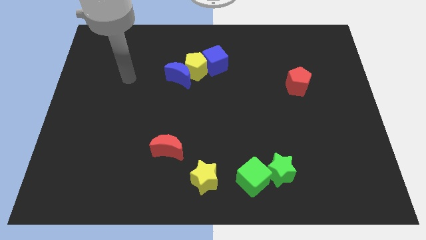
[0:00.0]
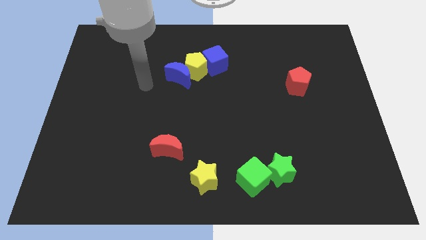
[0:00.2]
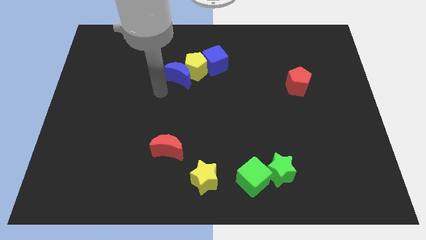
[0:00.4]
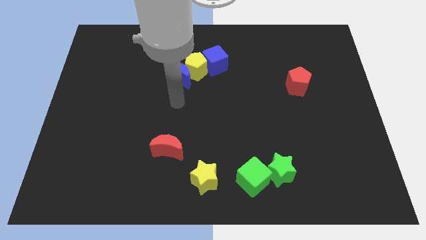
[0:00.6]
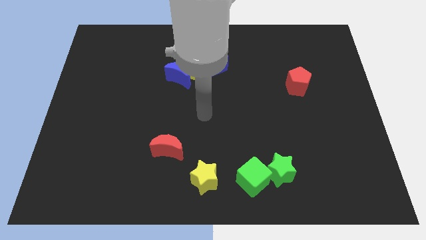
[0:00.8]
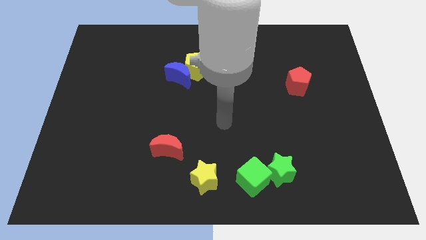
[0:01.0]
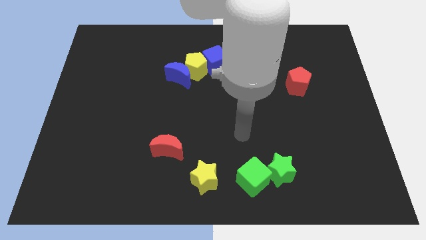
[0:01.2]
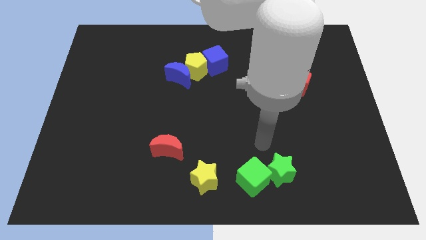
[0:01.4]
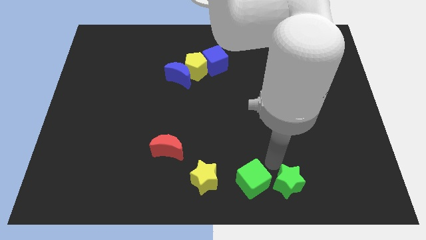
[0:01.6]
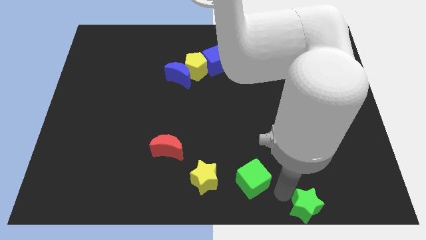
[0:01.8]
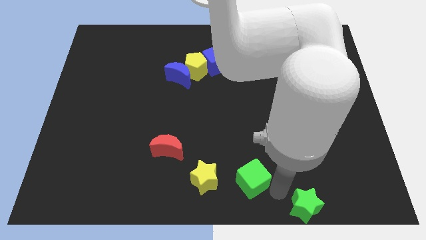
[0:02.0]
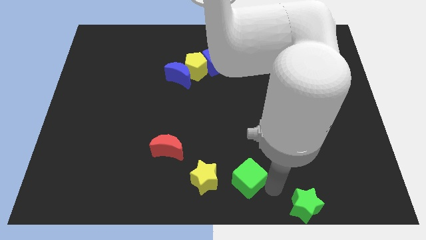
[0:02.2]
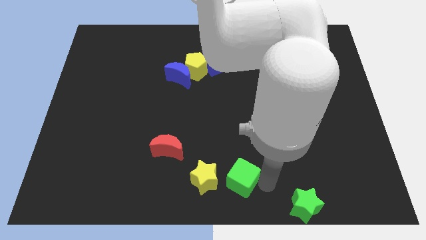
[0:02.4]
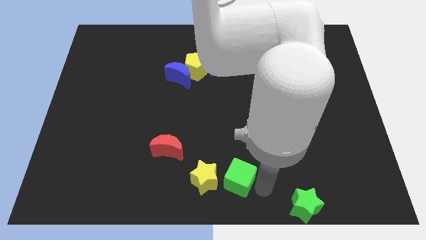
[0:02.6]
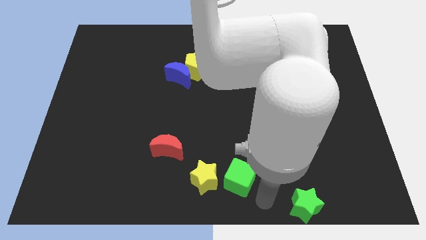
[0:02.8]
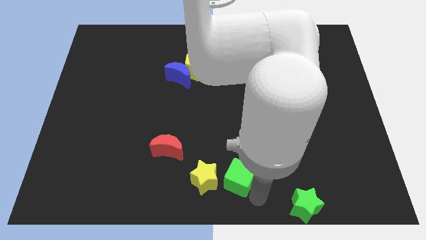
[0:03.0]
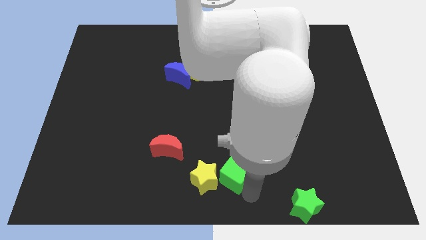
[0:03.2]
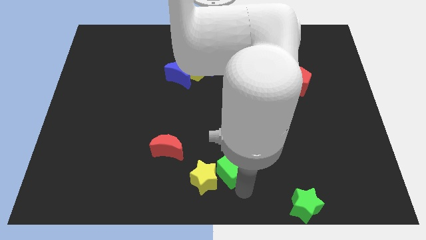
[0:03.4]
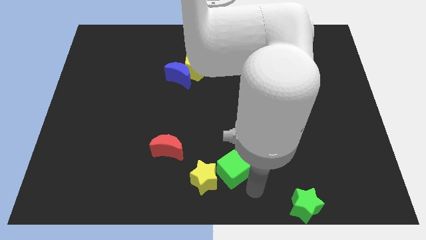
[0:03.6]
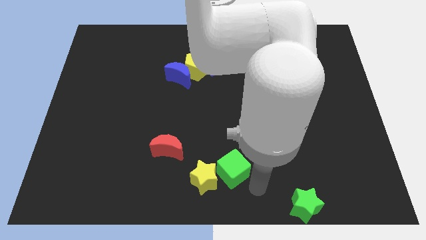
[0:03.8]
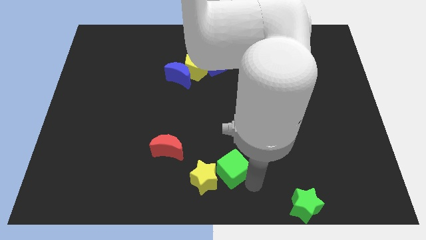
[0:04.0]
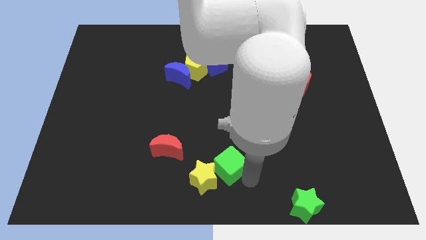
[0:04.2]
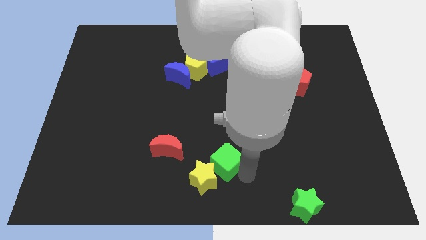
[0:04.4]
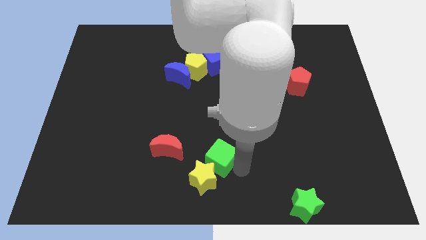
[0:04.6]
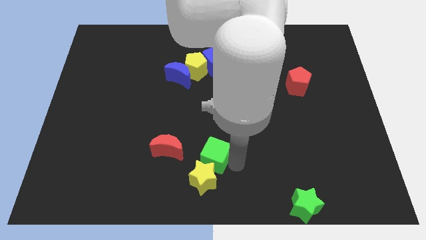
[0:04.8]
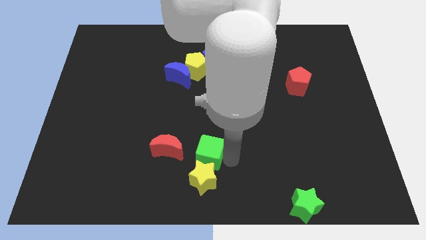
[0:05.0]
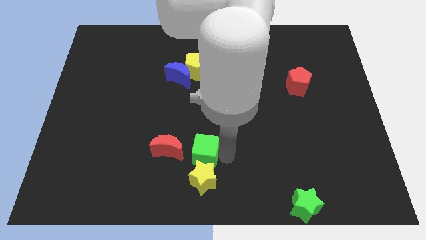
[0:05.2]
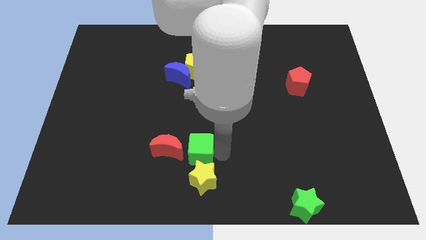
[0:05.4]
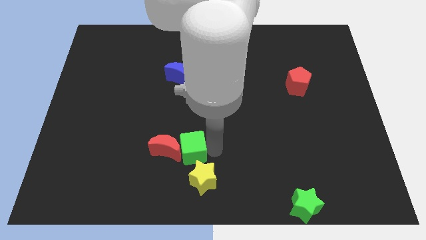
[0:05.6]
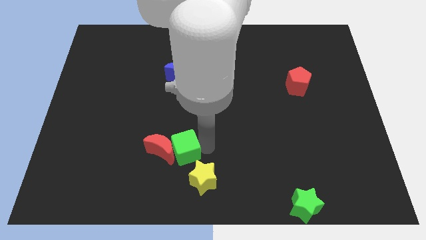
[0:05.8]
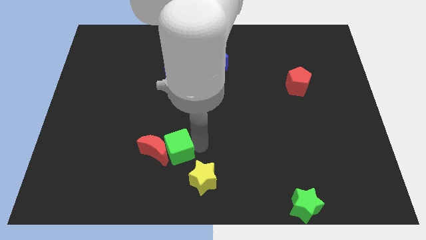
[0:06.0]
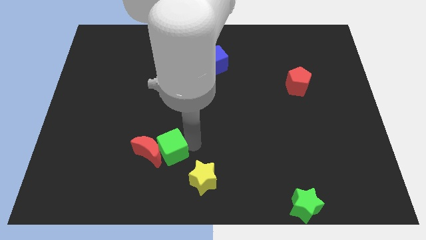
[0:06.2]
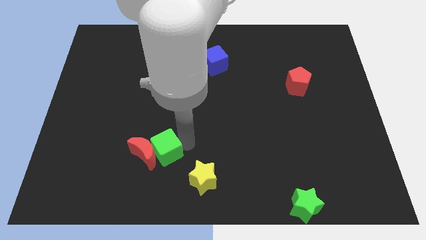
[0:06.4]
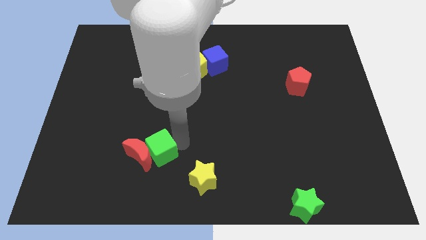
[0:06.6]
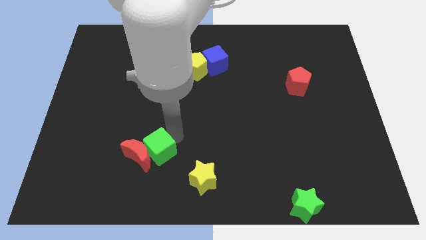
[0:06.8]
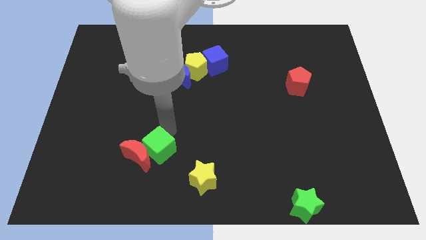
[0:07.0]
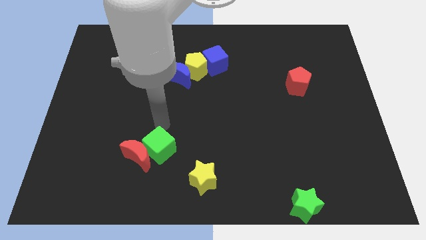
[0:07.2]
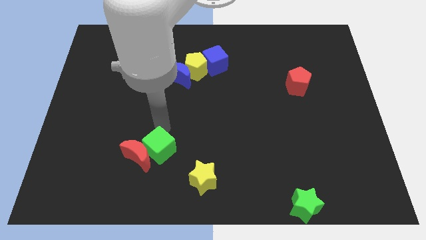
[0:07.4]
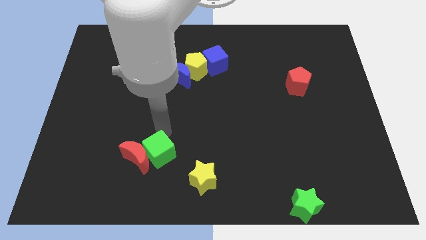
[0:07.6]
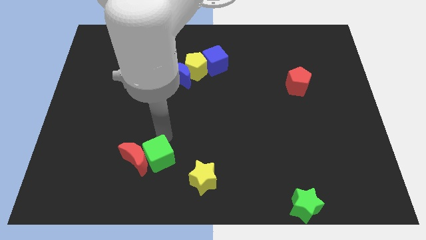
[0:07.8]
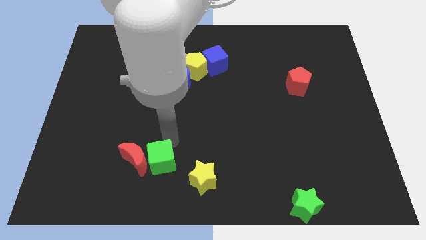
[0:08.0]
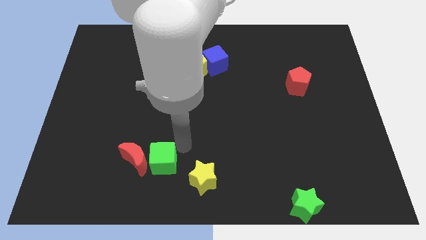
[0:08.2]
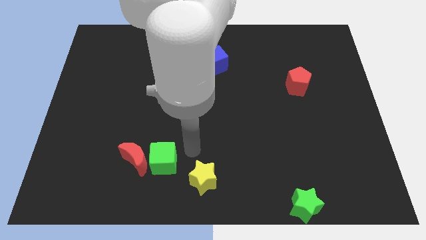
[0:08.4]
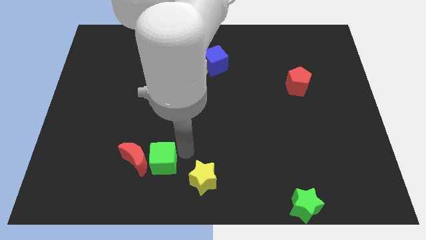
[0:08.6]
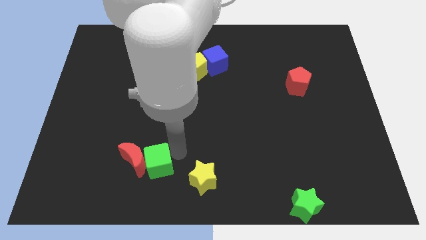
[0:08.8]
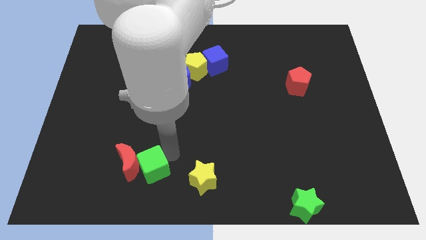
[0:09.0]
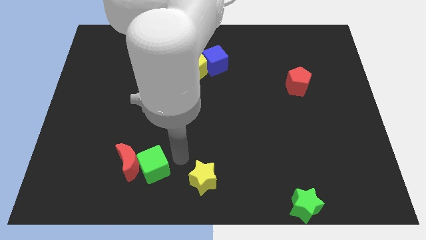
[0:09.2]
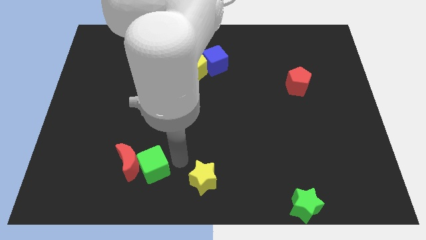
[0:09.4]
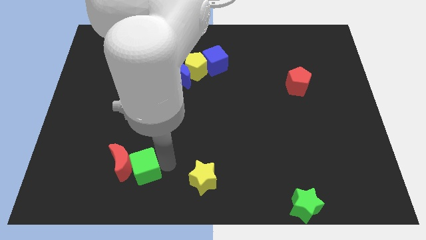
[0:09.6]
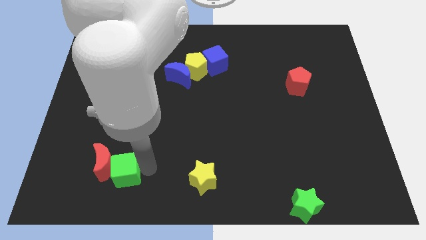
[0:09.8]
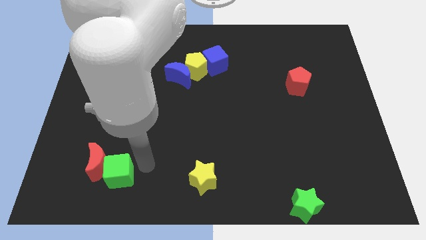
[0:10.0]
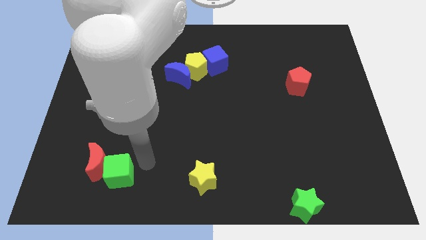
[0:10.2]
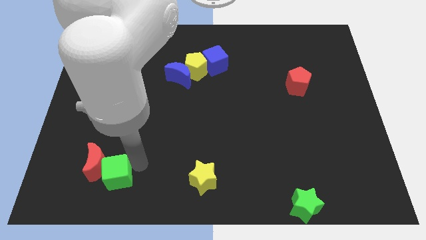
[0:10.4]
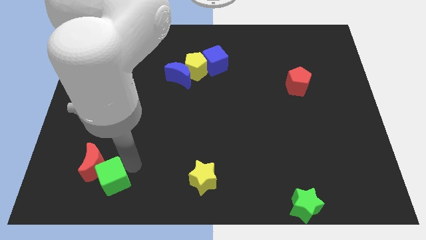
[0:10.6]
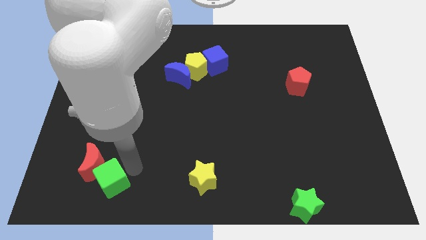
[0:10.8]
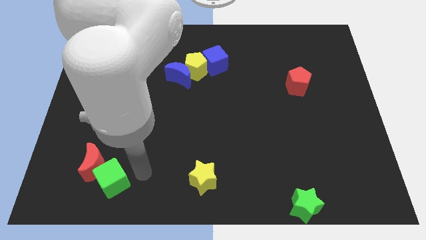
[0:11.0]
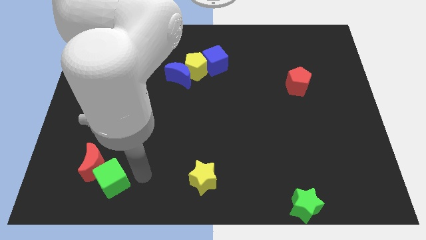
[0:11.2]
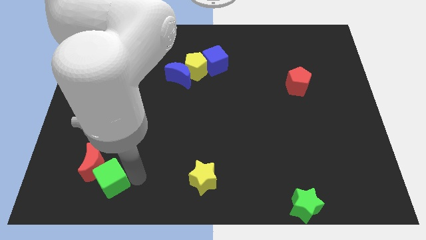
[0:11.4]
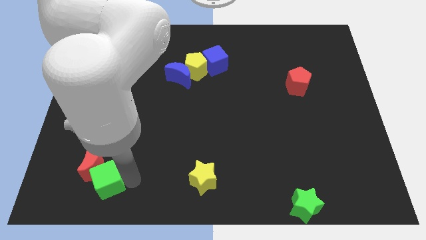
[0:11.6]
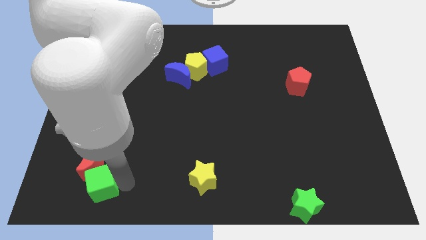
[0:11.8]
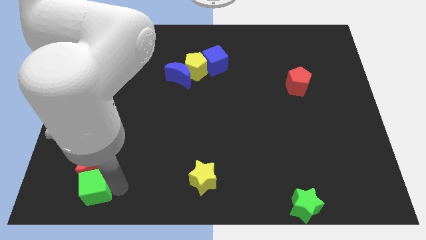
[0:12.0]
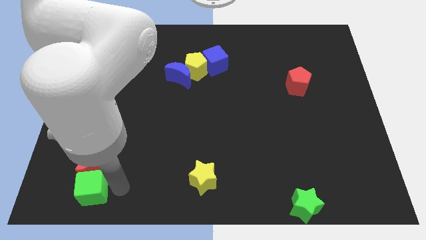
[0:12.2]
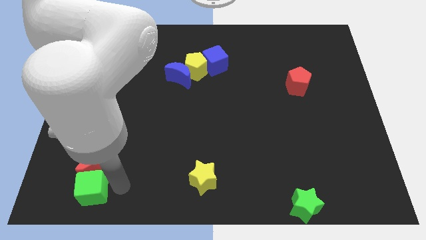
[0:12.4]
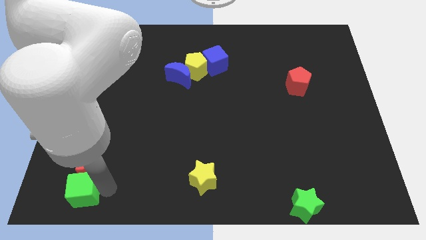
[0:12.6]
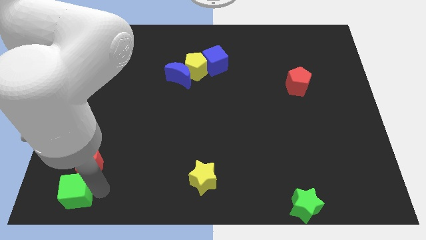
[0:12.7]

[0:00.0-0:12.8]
put the green cube to the bottom left of the board
